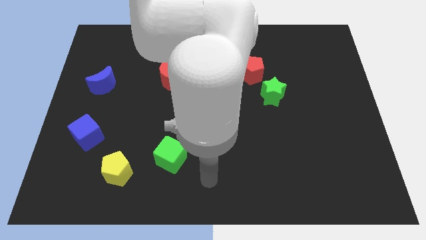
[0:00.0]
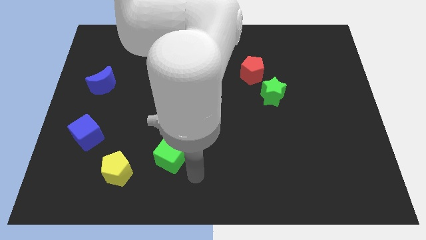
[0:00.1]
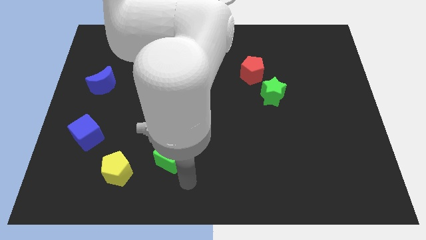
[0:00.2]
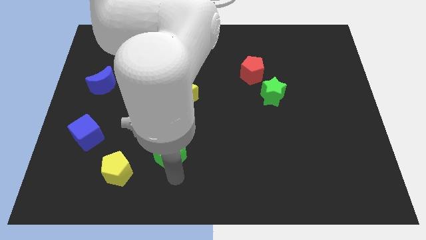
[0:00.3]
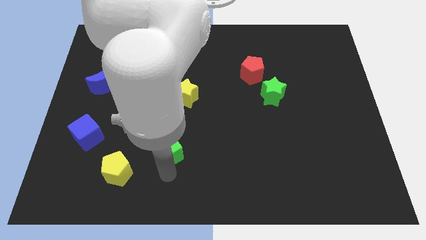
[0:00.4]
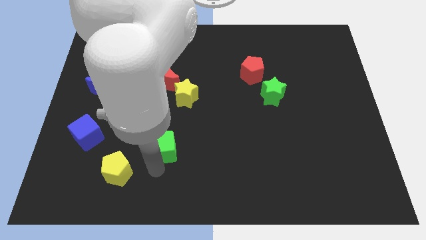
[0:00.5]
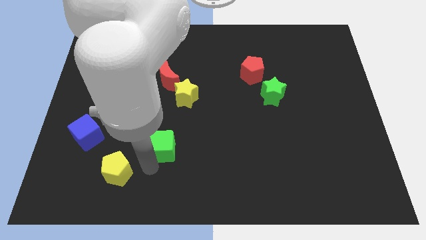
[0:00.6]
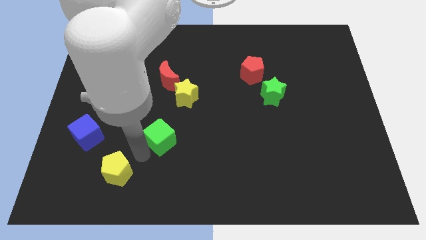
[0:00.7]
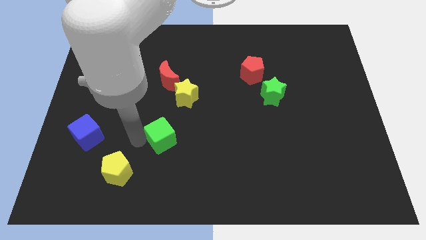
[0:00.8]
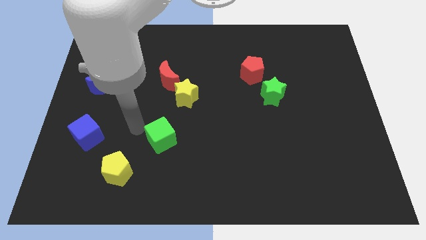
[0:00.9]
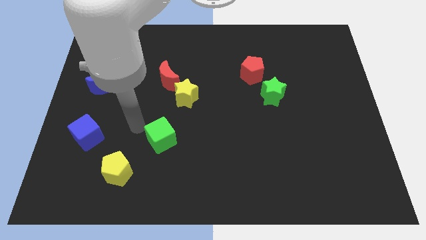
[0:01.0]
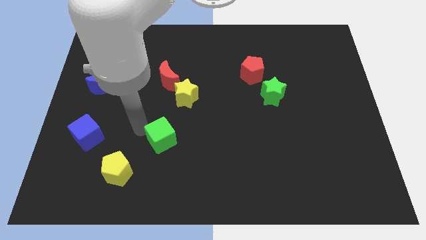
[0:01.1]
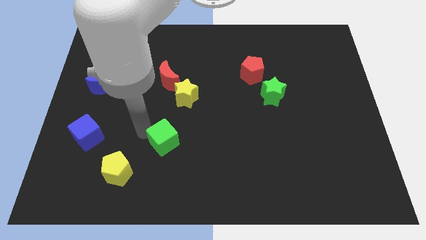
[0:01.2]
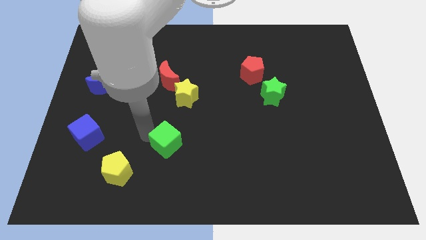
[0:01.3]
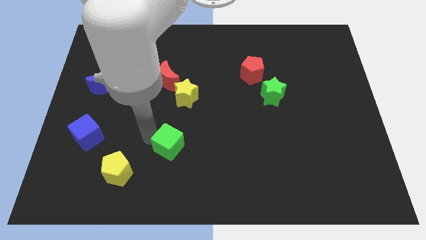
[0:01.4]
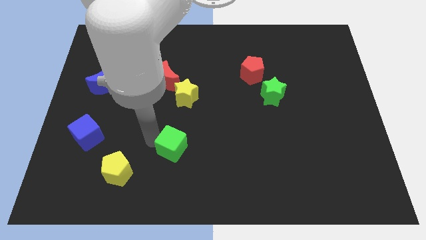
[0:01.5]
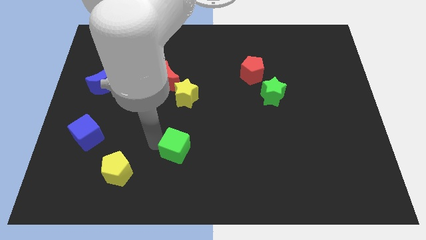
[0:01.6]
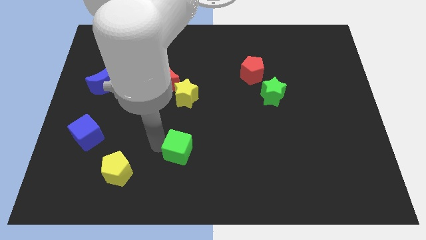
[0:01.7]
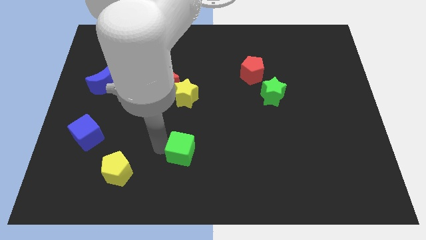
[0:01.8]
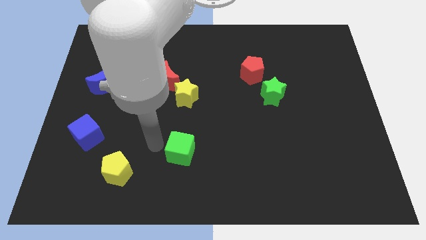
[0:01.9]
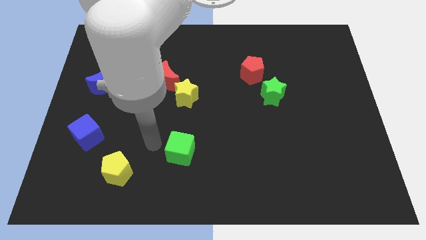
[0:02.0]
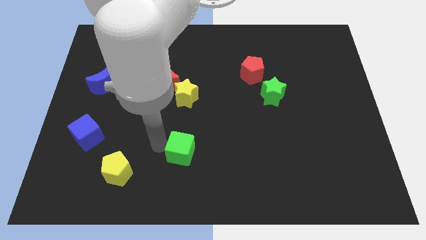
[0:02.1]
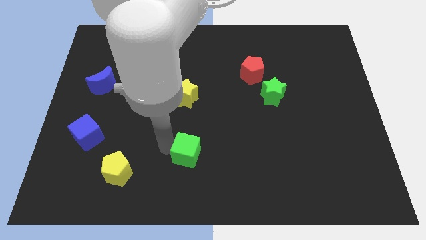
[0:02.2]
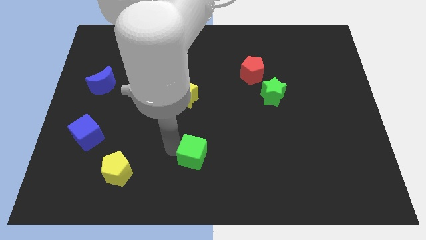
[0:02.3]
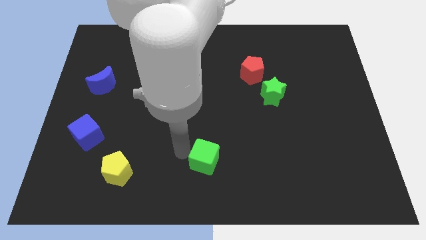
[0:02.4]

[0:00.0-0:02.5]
push the green cube to the right slightly

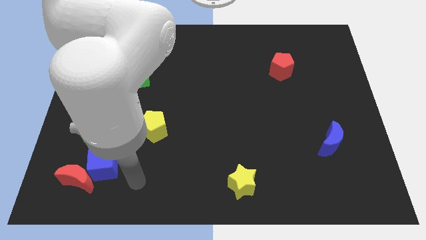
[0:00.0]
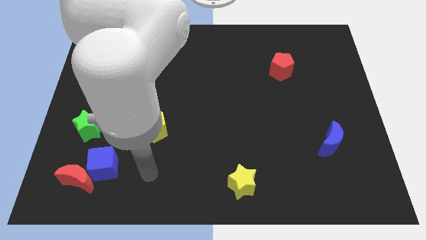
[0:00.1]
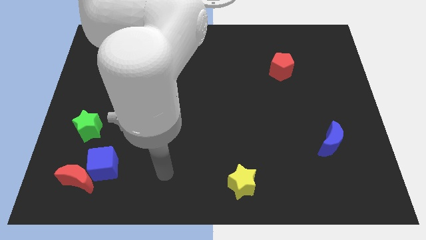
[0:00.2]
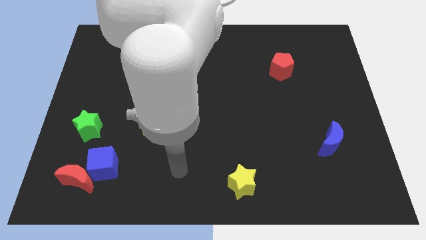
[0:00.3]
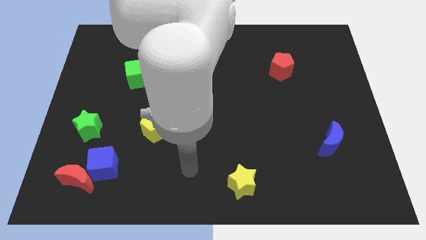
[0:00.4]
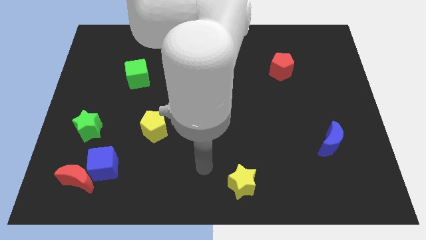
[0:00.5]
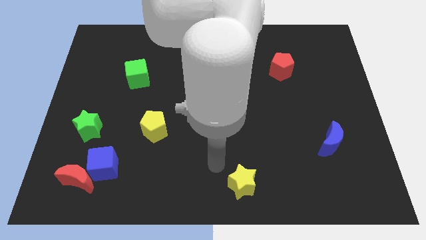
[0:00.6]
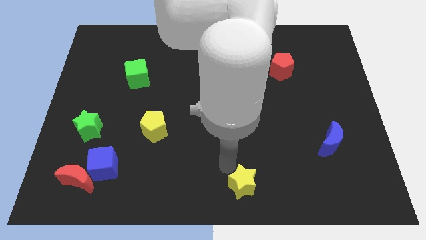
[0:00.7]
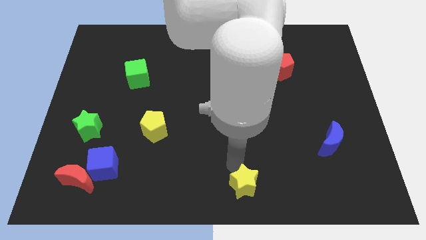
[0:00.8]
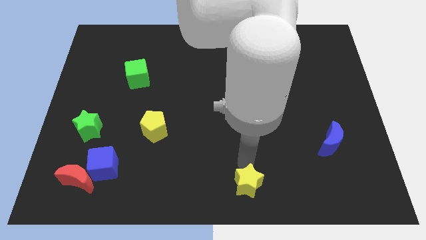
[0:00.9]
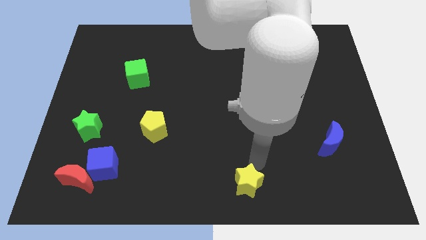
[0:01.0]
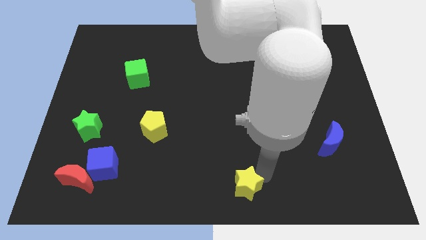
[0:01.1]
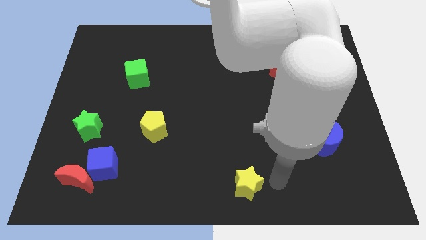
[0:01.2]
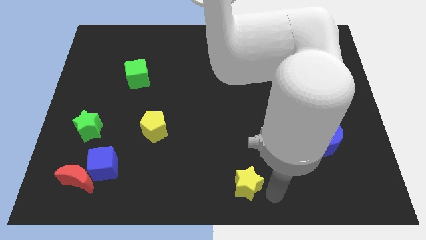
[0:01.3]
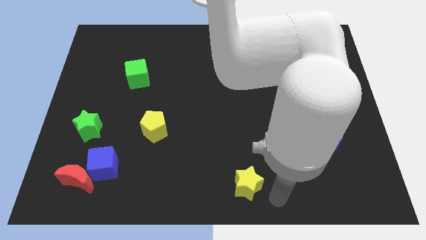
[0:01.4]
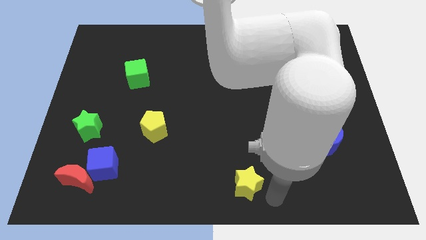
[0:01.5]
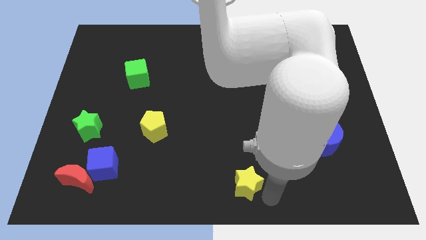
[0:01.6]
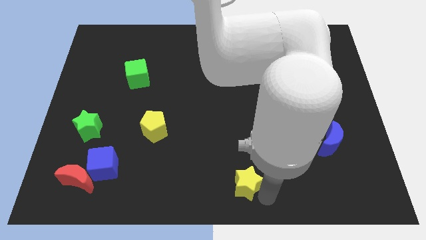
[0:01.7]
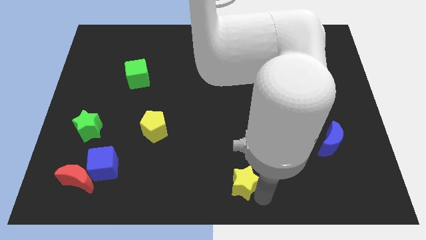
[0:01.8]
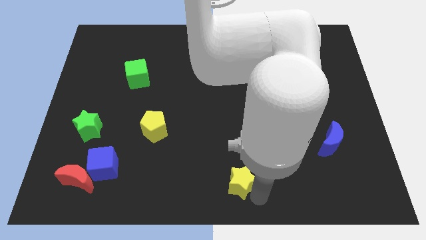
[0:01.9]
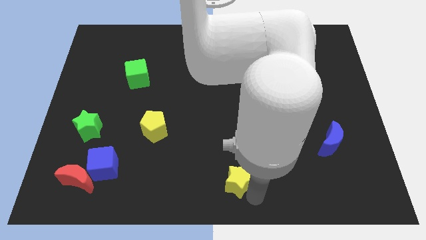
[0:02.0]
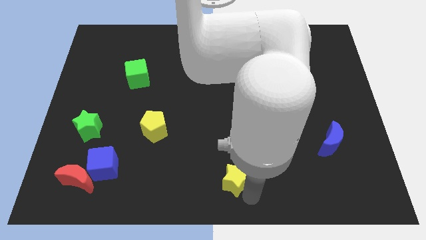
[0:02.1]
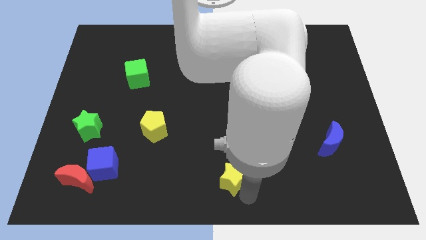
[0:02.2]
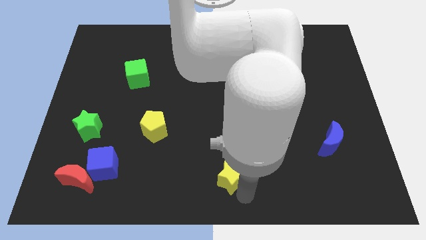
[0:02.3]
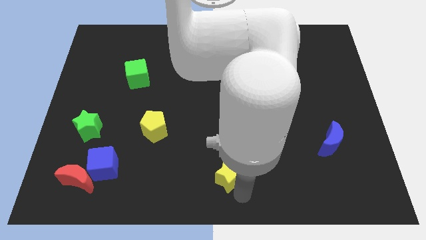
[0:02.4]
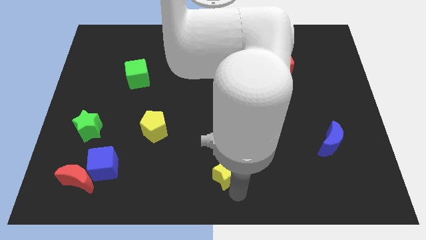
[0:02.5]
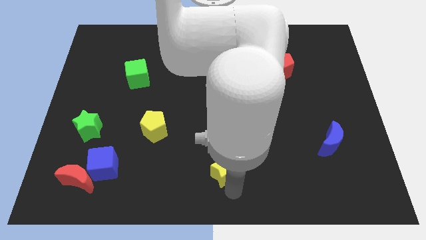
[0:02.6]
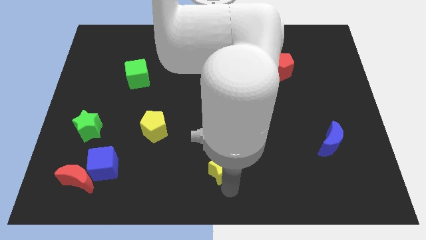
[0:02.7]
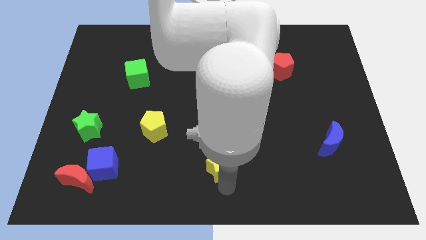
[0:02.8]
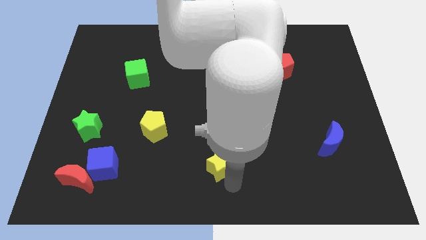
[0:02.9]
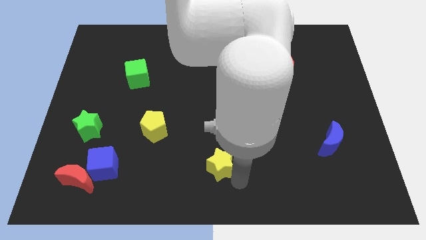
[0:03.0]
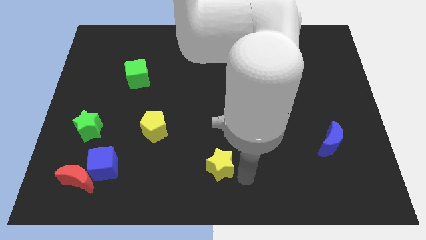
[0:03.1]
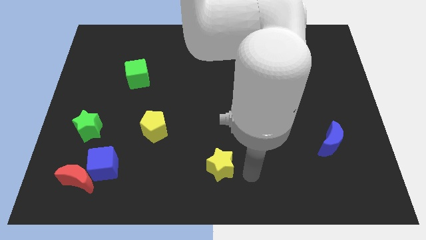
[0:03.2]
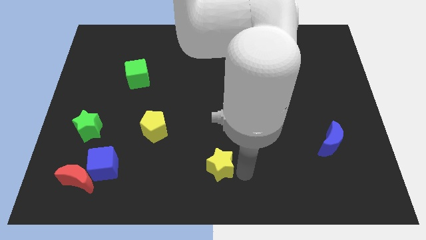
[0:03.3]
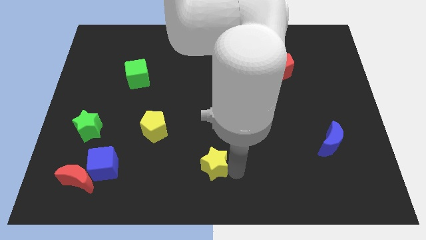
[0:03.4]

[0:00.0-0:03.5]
push the yellow star a little bit diagonally upwards and to the left

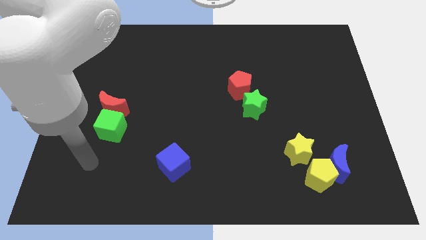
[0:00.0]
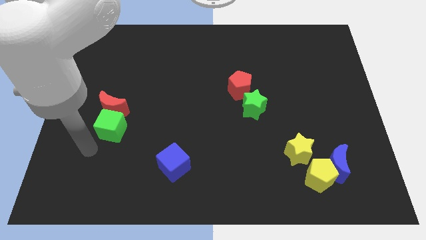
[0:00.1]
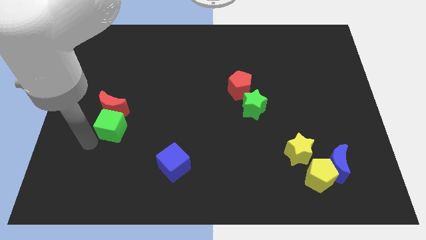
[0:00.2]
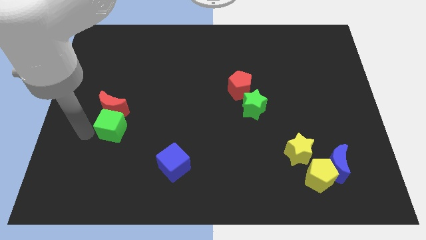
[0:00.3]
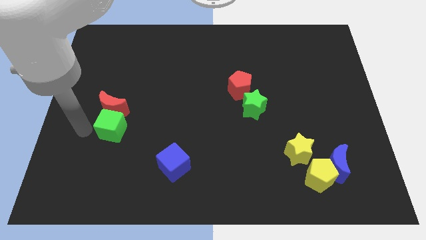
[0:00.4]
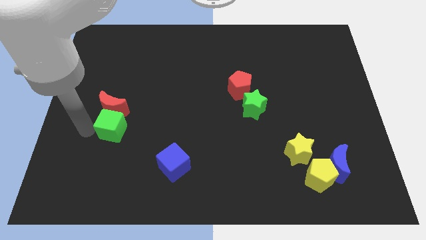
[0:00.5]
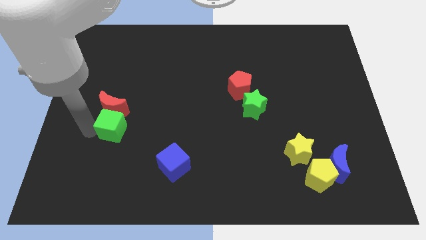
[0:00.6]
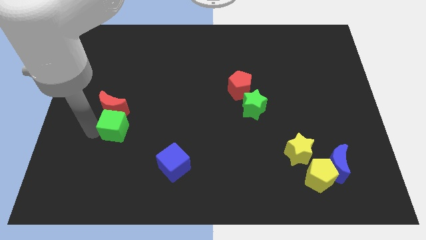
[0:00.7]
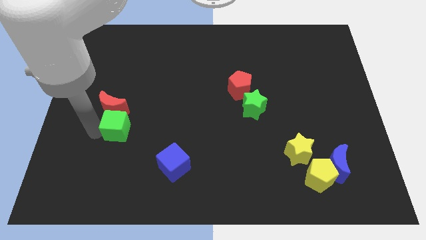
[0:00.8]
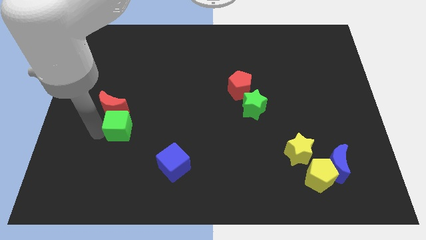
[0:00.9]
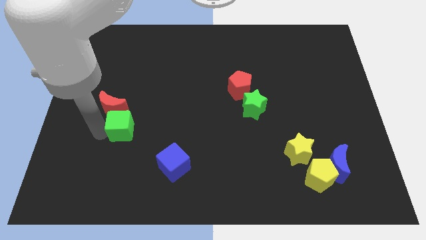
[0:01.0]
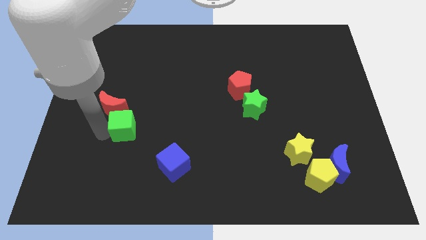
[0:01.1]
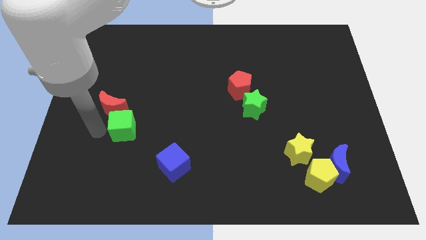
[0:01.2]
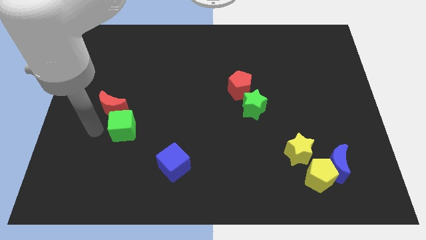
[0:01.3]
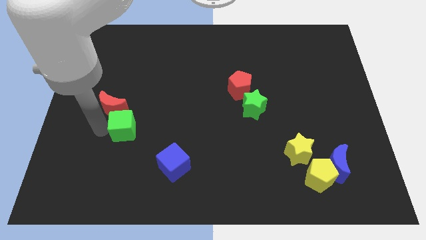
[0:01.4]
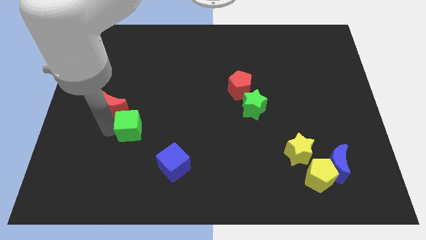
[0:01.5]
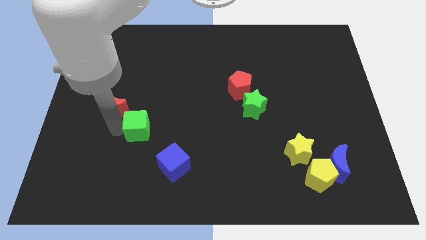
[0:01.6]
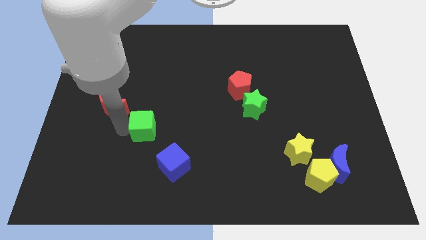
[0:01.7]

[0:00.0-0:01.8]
move the green cube a bit right

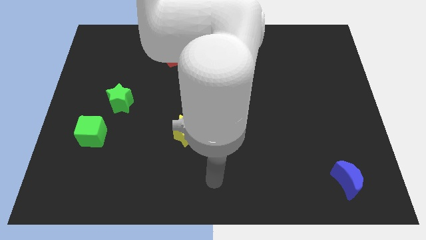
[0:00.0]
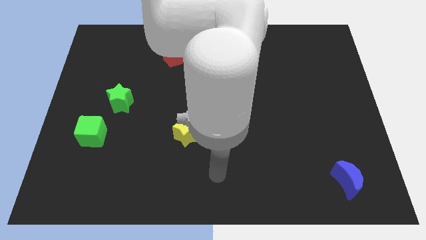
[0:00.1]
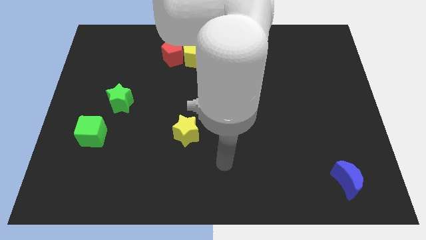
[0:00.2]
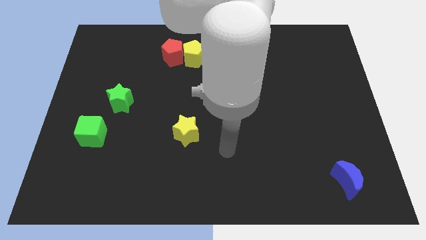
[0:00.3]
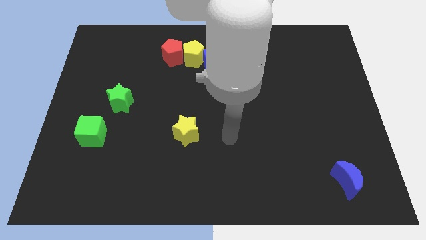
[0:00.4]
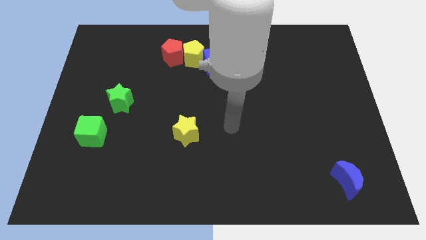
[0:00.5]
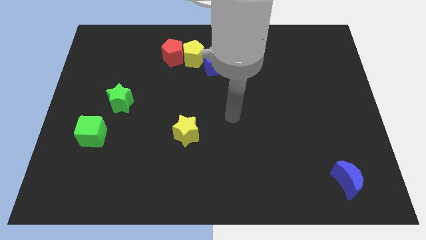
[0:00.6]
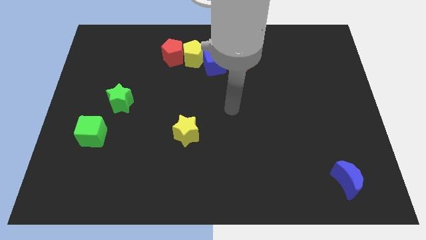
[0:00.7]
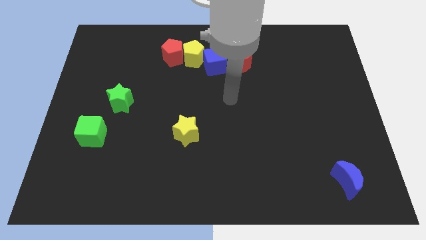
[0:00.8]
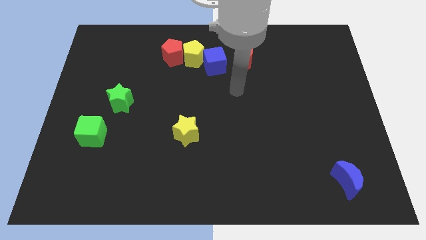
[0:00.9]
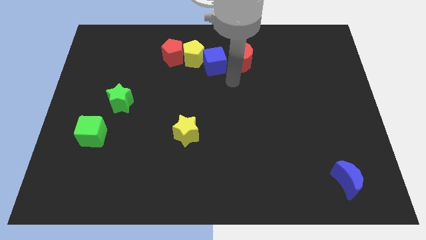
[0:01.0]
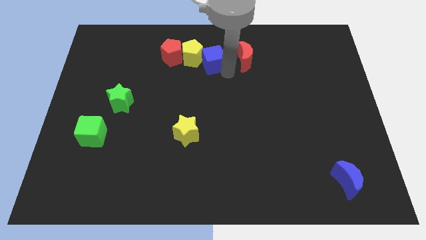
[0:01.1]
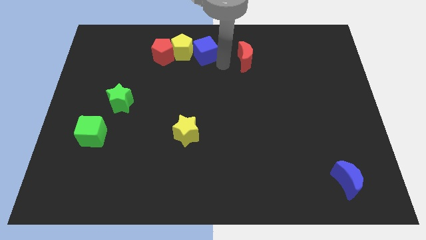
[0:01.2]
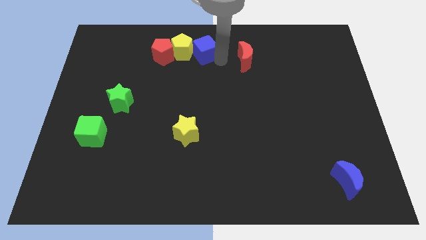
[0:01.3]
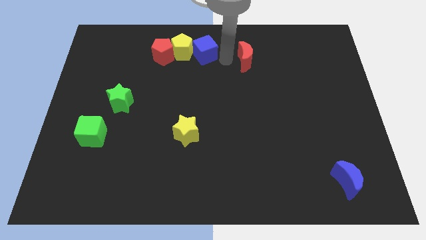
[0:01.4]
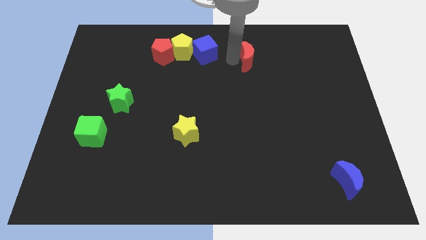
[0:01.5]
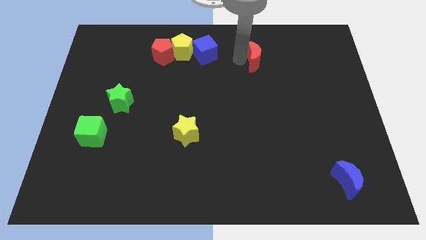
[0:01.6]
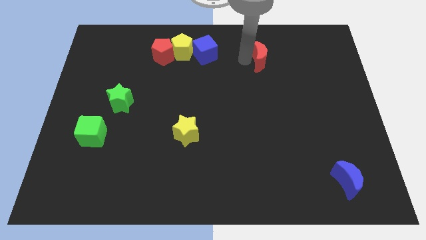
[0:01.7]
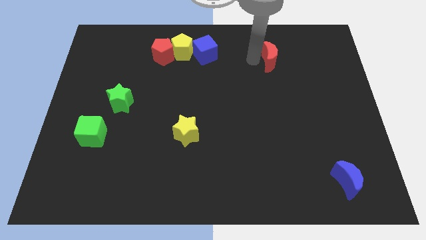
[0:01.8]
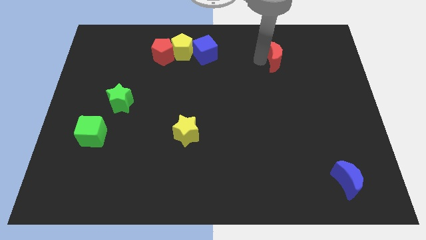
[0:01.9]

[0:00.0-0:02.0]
push the red moon to the right slightly
